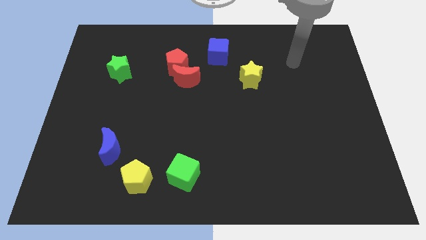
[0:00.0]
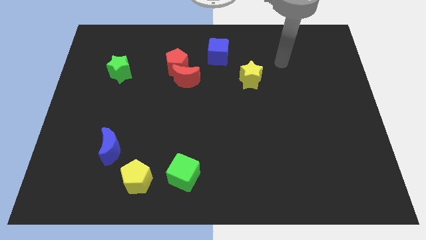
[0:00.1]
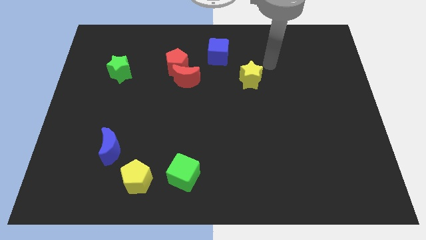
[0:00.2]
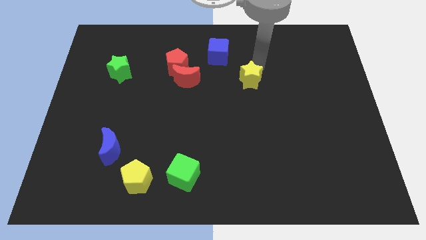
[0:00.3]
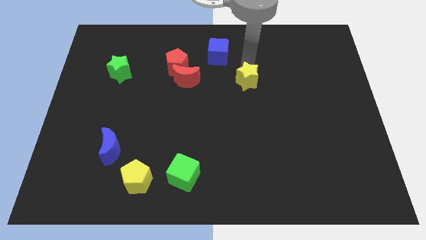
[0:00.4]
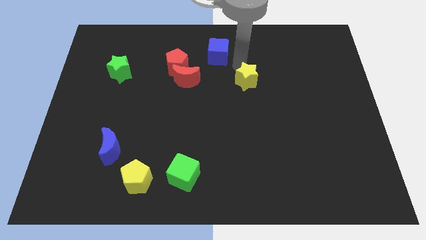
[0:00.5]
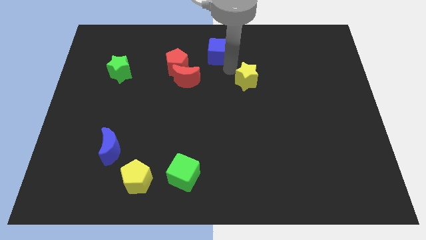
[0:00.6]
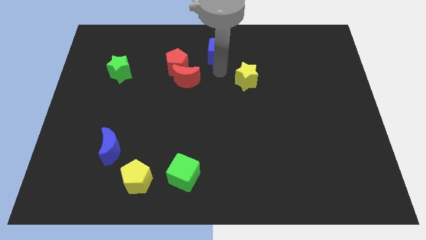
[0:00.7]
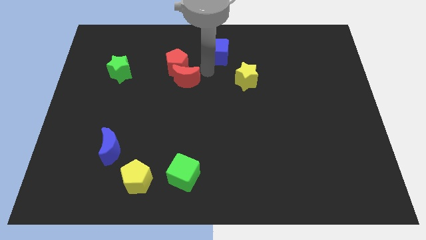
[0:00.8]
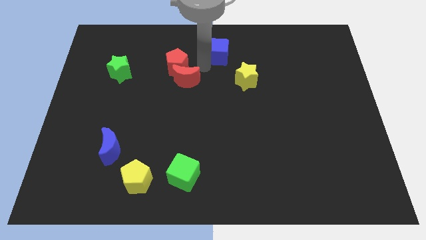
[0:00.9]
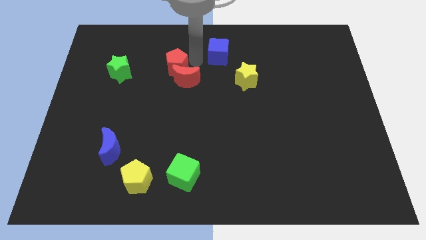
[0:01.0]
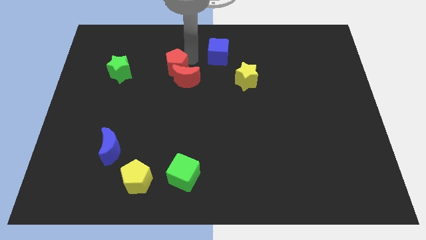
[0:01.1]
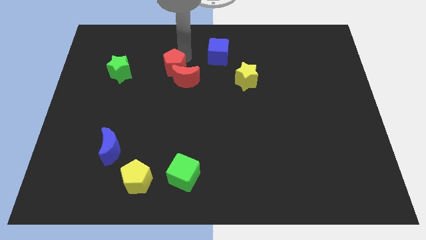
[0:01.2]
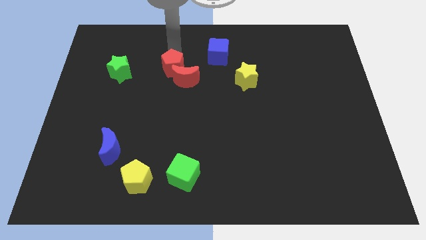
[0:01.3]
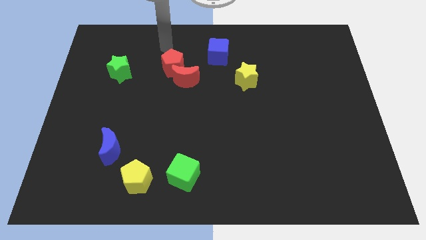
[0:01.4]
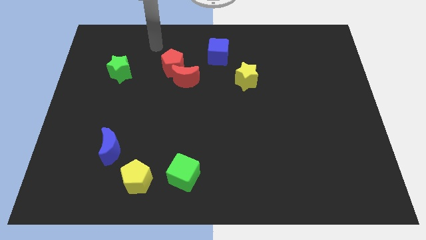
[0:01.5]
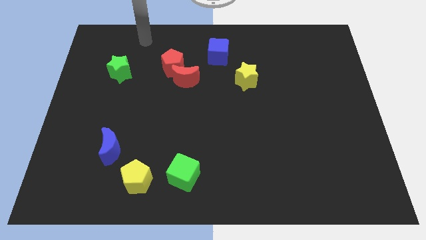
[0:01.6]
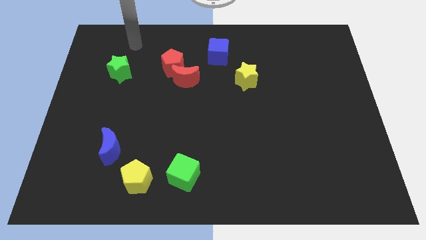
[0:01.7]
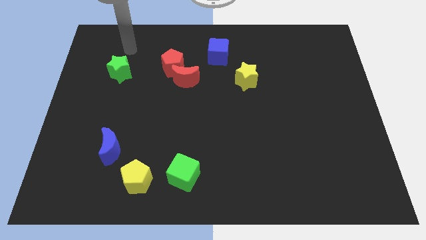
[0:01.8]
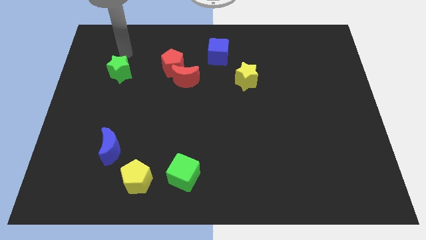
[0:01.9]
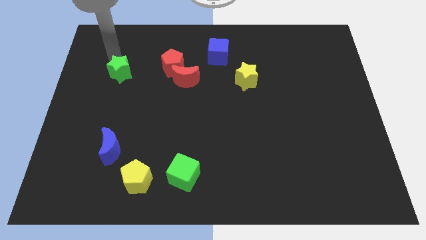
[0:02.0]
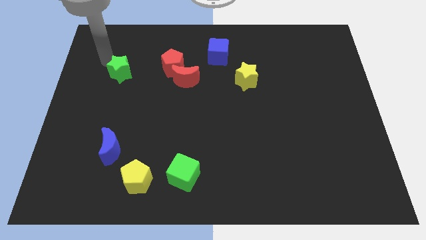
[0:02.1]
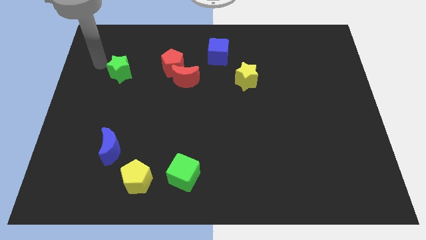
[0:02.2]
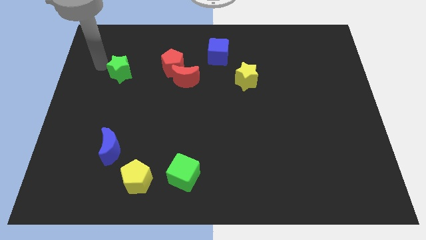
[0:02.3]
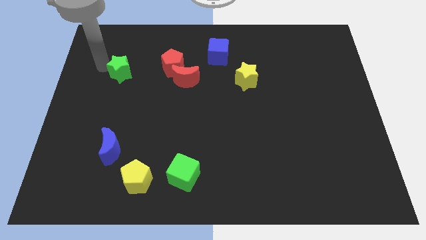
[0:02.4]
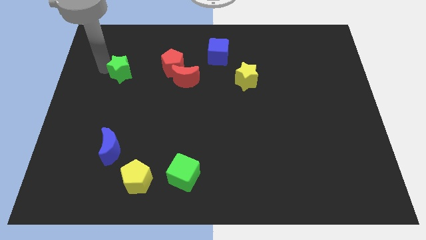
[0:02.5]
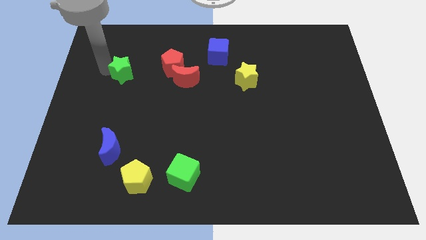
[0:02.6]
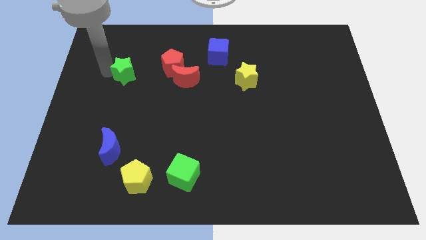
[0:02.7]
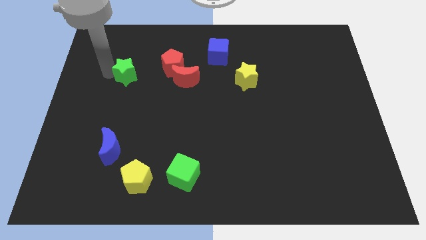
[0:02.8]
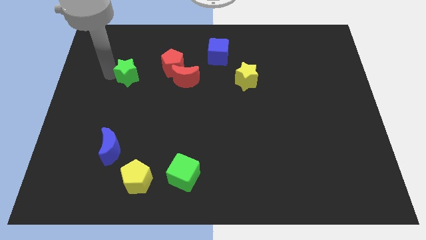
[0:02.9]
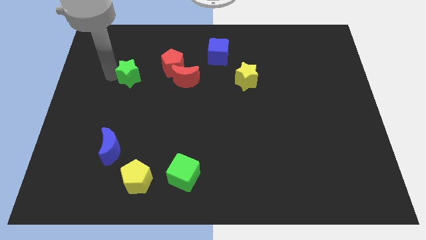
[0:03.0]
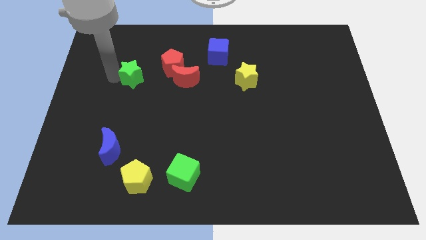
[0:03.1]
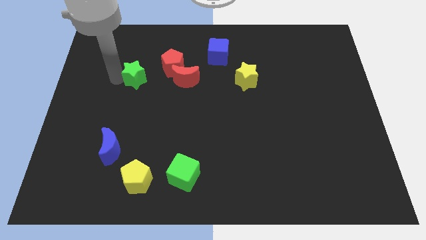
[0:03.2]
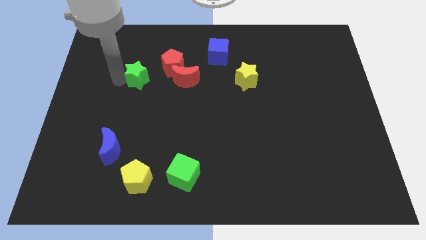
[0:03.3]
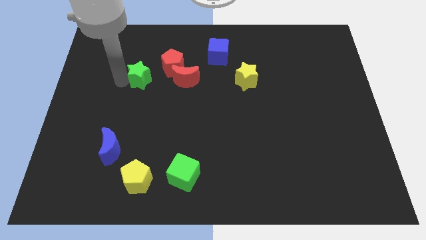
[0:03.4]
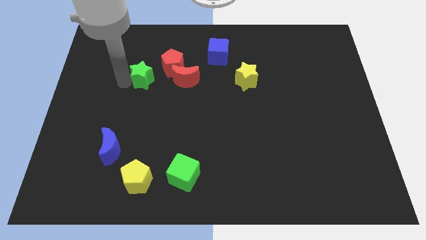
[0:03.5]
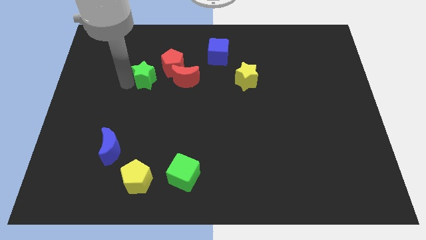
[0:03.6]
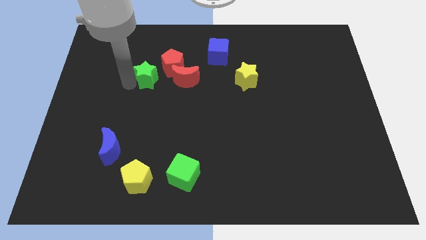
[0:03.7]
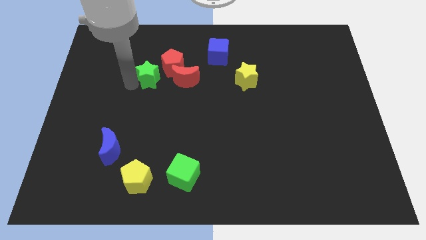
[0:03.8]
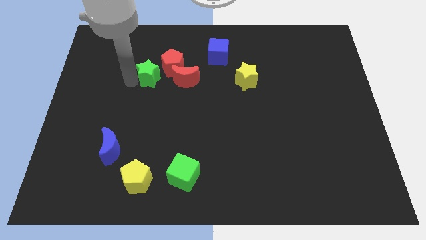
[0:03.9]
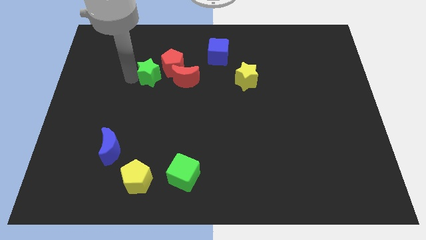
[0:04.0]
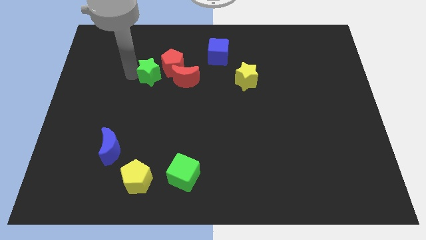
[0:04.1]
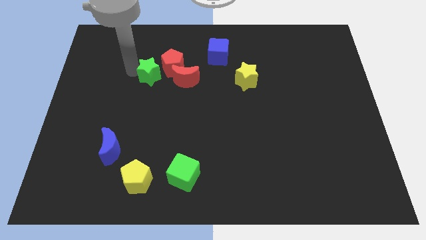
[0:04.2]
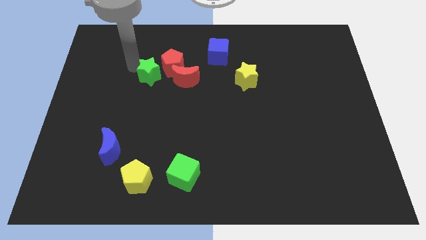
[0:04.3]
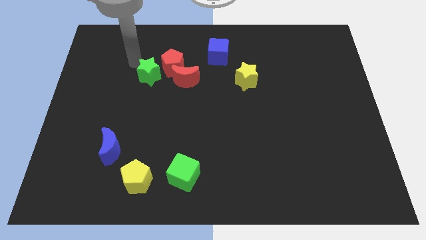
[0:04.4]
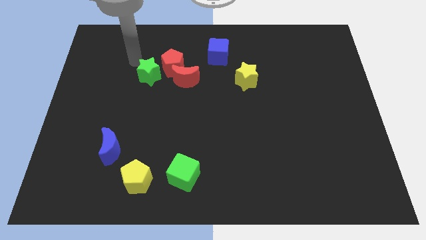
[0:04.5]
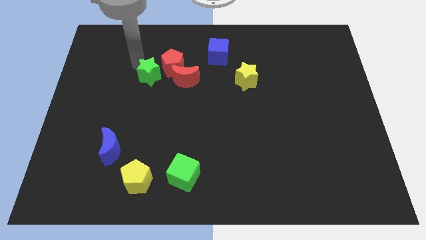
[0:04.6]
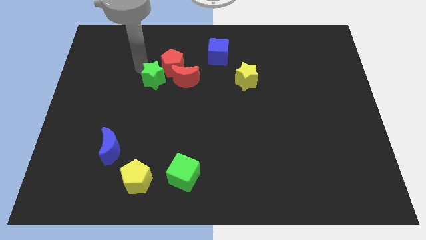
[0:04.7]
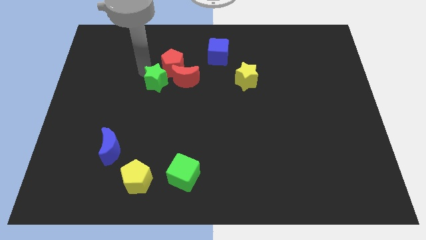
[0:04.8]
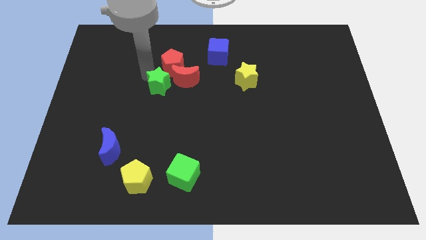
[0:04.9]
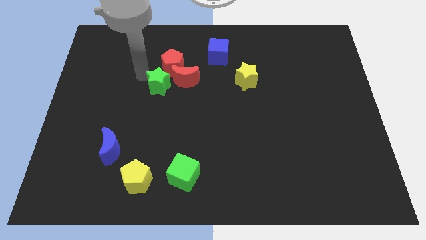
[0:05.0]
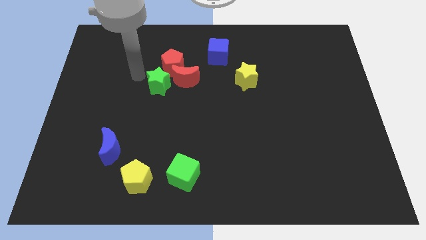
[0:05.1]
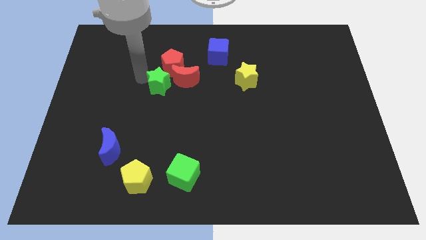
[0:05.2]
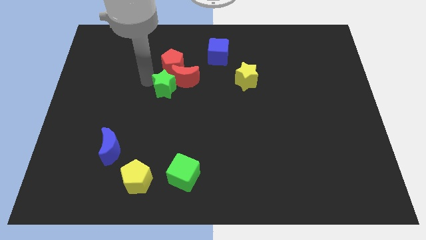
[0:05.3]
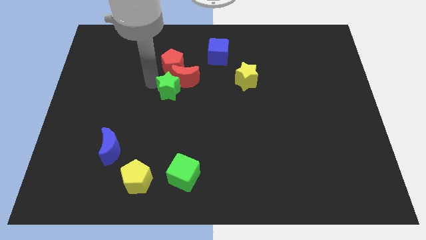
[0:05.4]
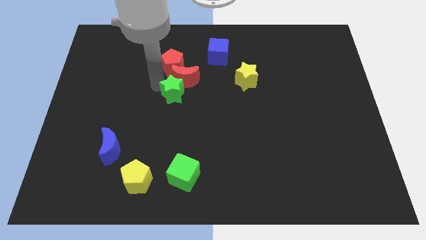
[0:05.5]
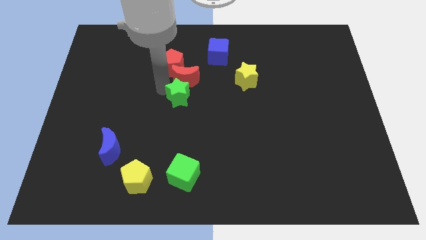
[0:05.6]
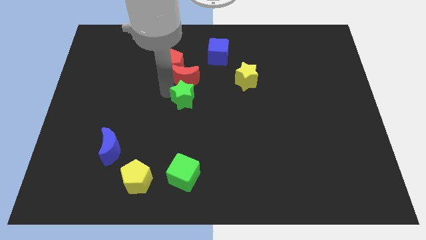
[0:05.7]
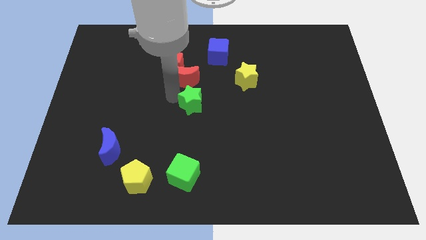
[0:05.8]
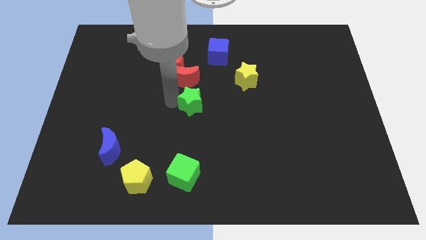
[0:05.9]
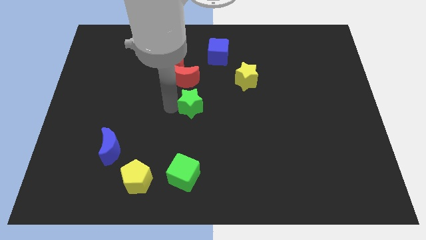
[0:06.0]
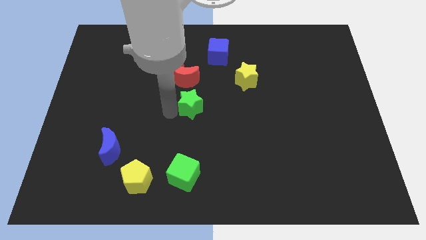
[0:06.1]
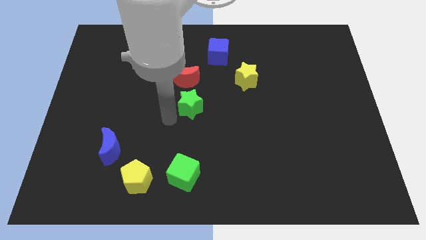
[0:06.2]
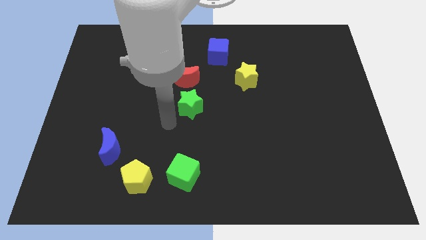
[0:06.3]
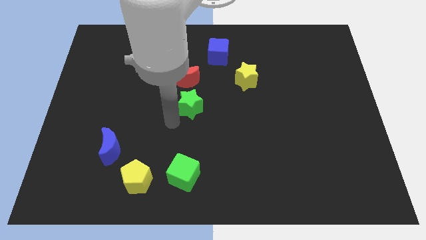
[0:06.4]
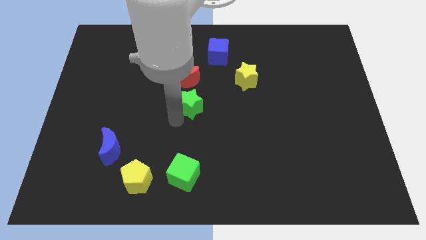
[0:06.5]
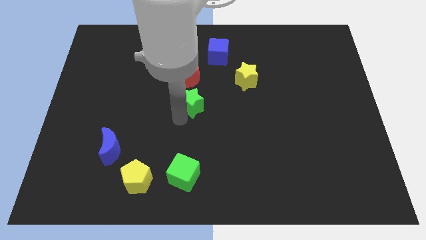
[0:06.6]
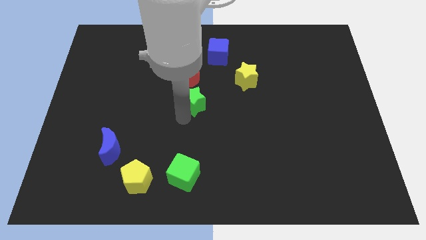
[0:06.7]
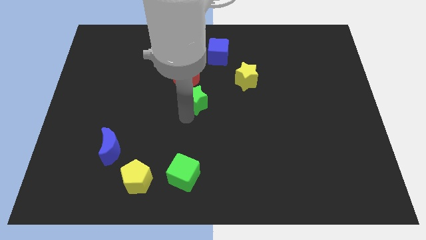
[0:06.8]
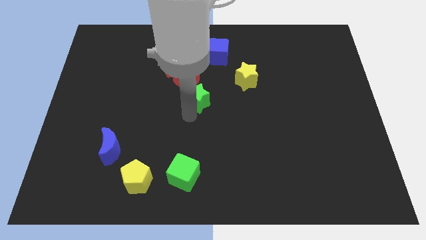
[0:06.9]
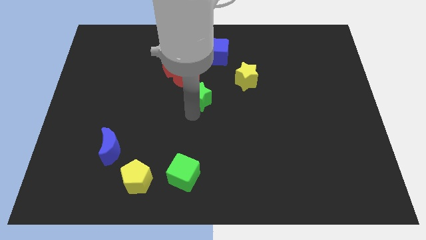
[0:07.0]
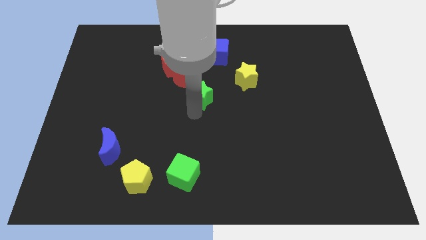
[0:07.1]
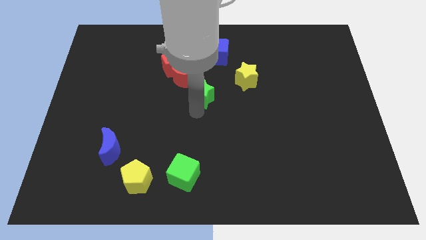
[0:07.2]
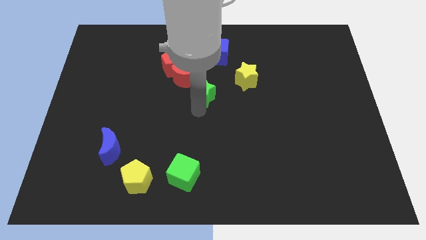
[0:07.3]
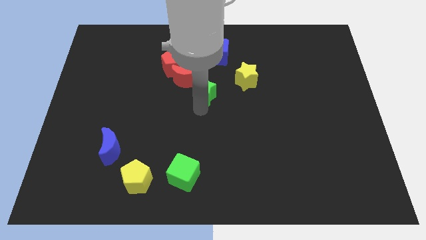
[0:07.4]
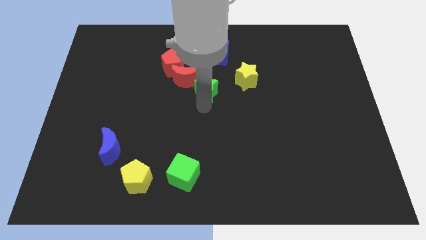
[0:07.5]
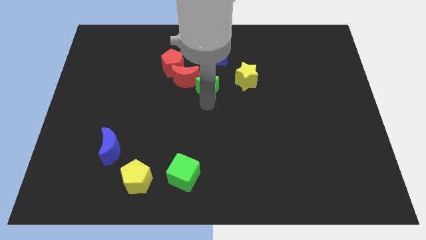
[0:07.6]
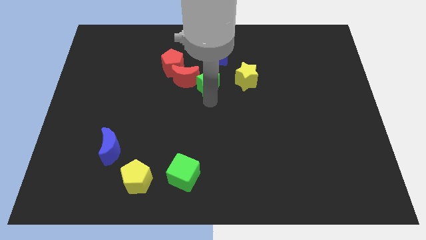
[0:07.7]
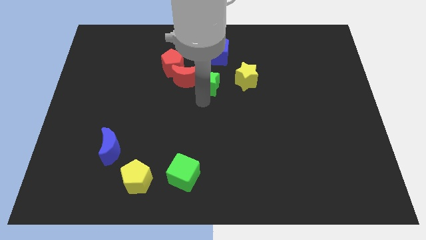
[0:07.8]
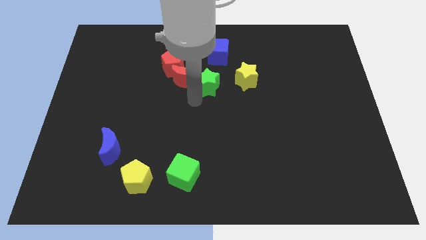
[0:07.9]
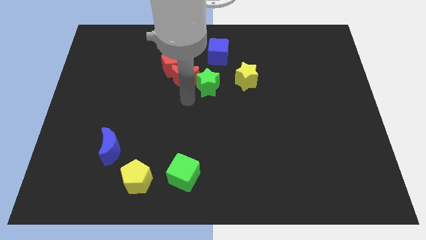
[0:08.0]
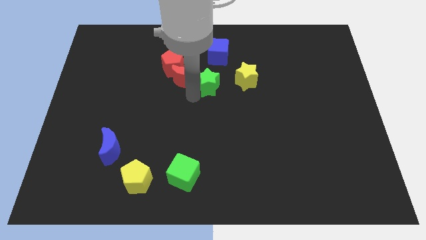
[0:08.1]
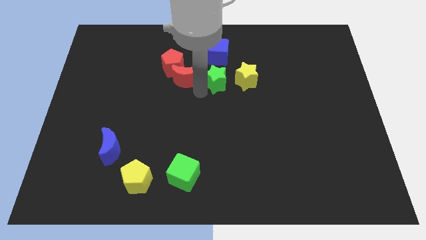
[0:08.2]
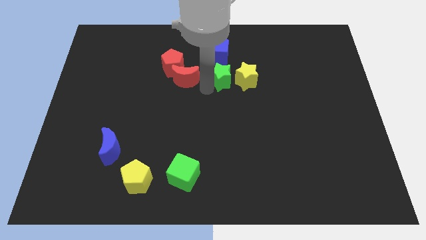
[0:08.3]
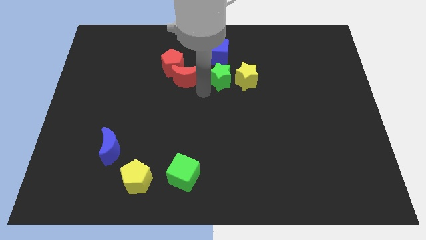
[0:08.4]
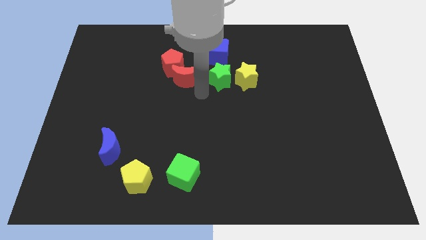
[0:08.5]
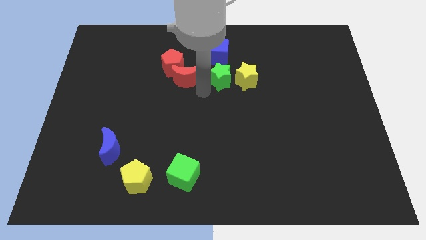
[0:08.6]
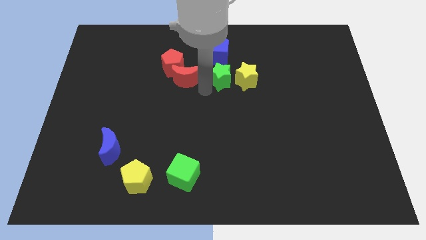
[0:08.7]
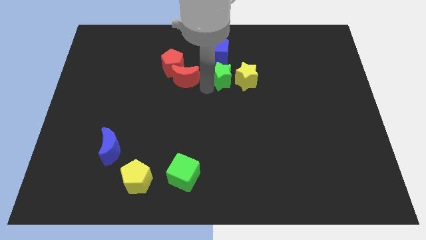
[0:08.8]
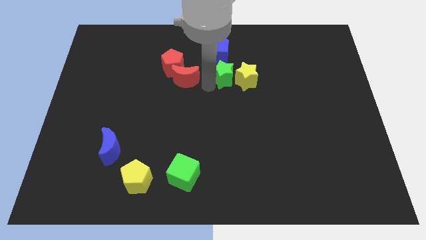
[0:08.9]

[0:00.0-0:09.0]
push the green star to the bottom right of the blue cube
